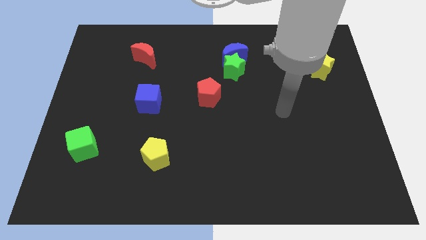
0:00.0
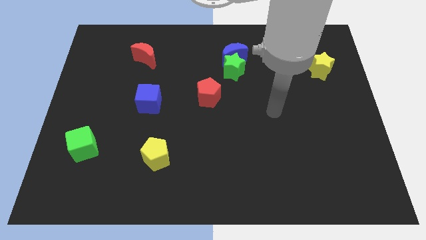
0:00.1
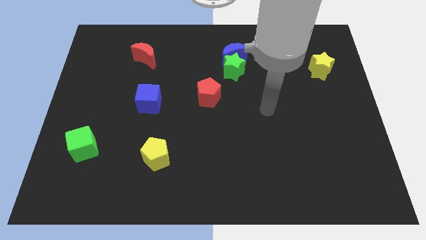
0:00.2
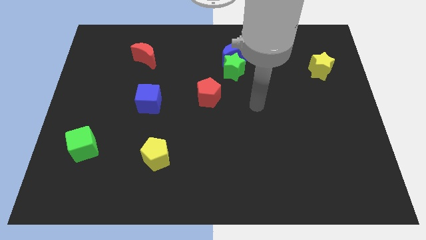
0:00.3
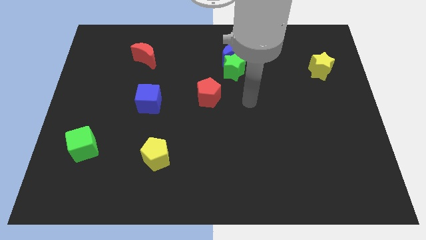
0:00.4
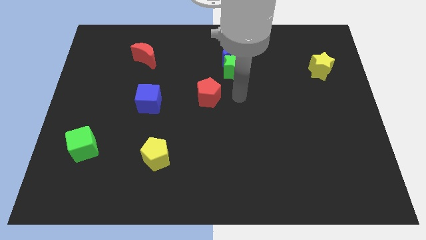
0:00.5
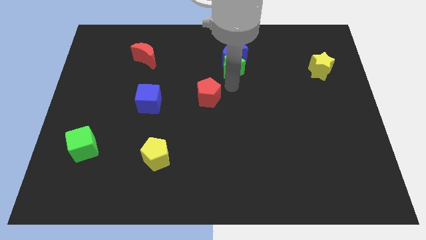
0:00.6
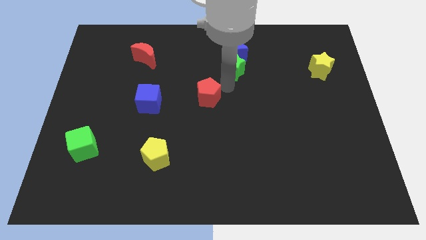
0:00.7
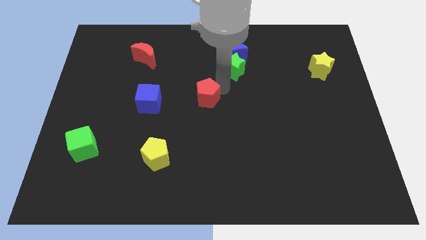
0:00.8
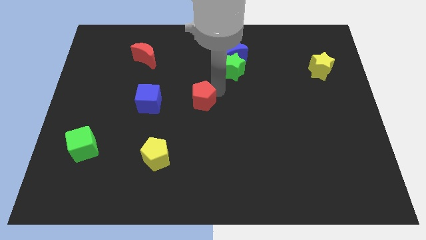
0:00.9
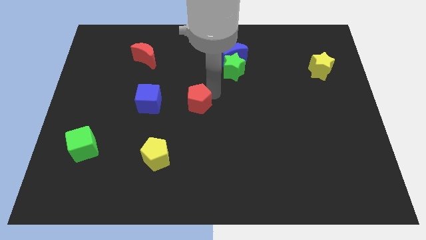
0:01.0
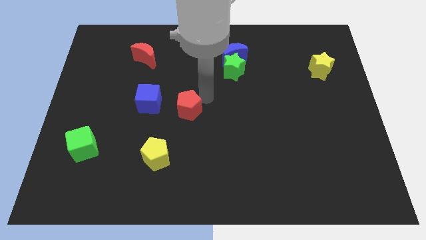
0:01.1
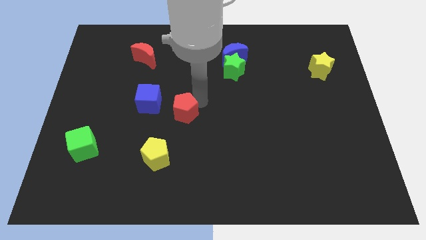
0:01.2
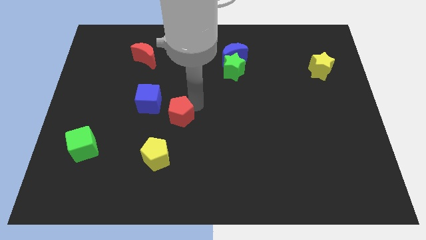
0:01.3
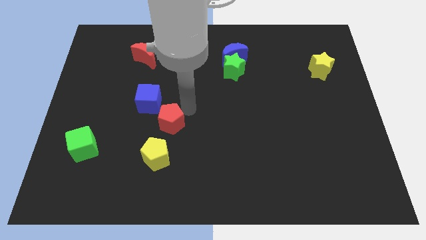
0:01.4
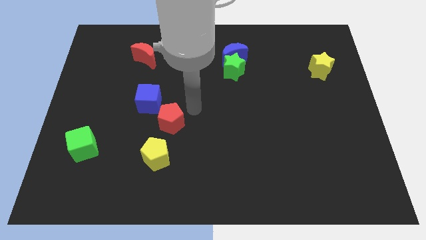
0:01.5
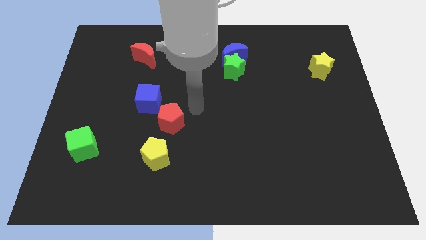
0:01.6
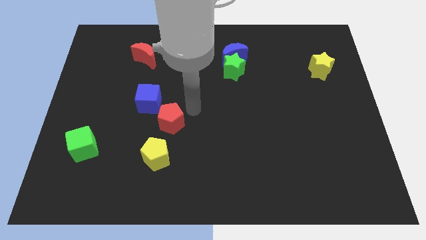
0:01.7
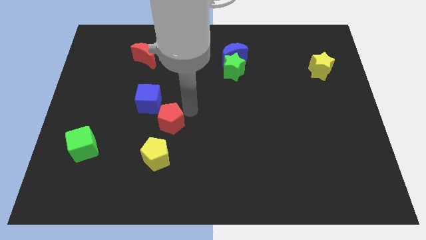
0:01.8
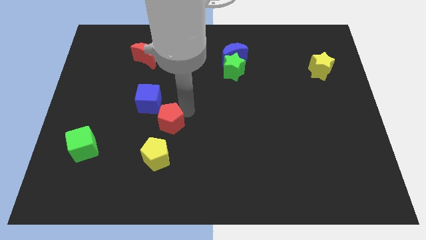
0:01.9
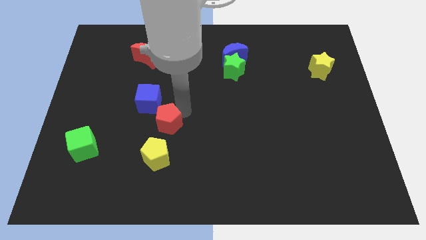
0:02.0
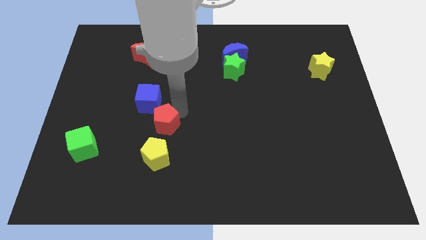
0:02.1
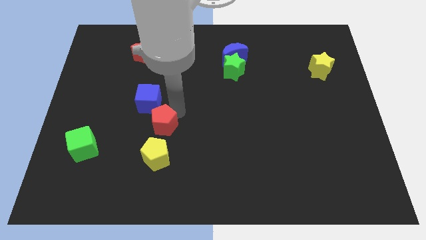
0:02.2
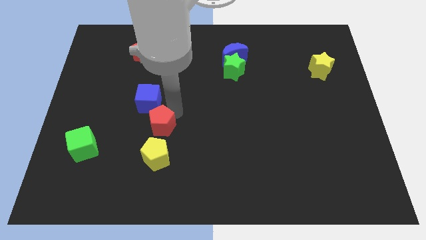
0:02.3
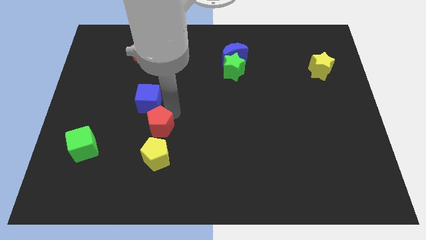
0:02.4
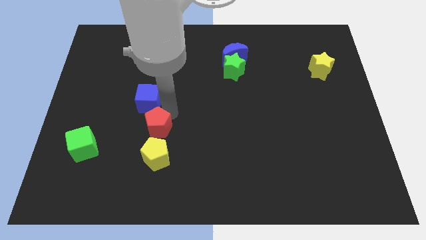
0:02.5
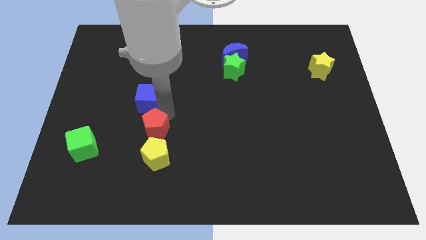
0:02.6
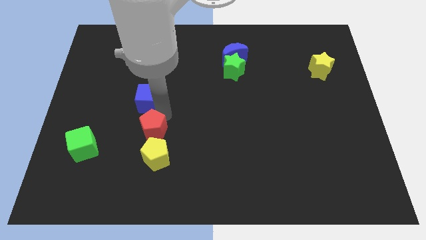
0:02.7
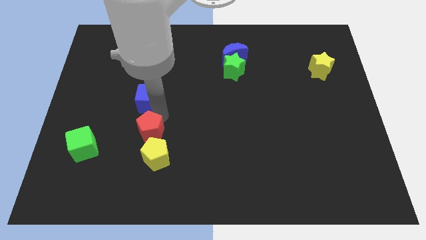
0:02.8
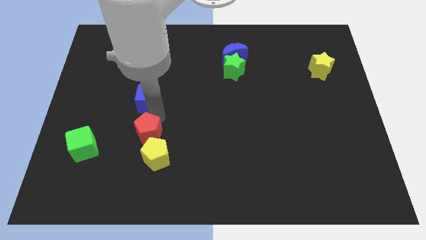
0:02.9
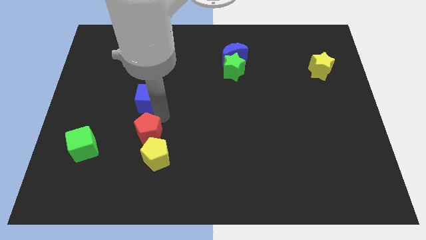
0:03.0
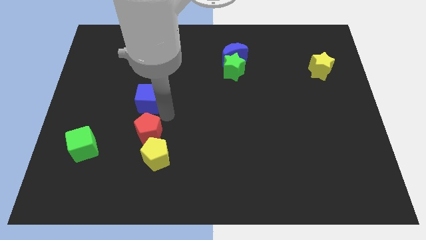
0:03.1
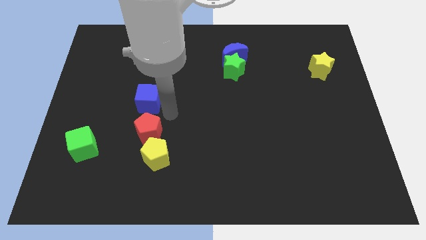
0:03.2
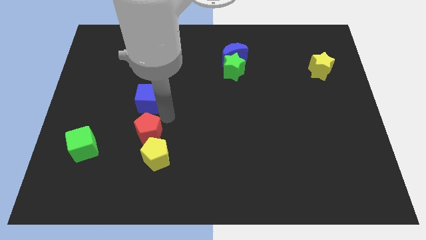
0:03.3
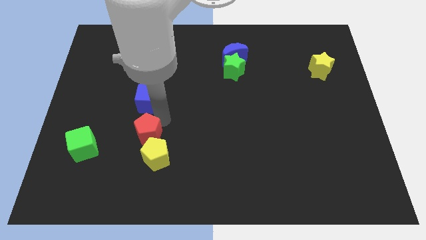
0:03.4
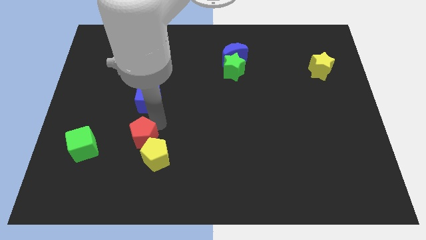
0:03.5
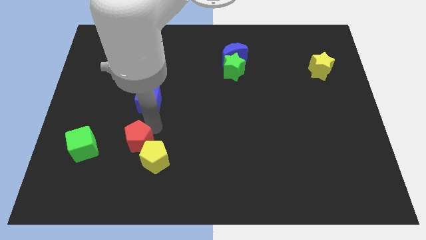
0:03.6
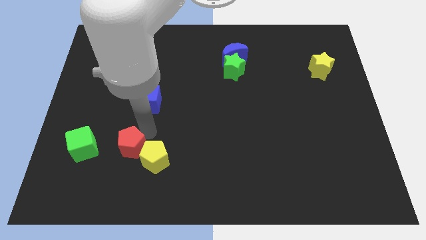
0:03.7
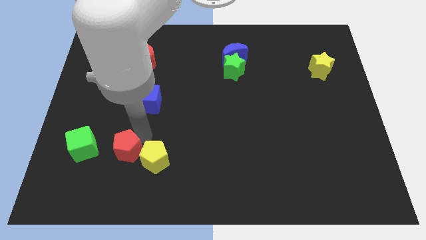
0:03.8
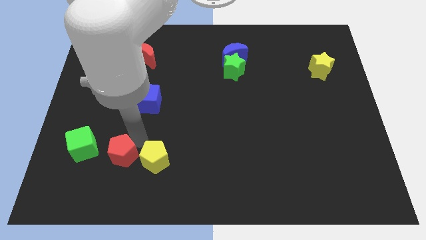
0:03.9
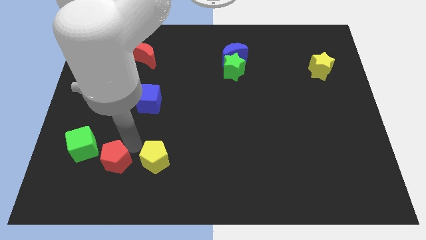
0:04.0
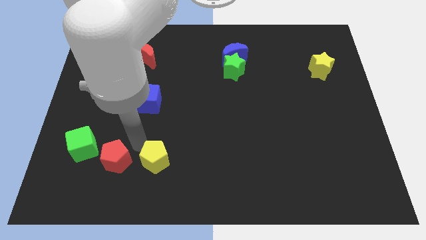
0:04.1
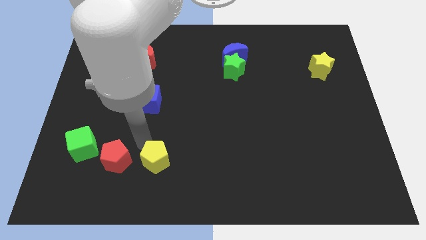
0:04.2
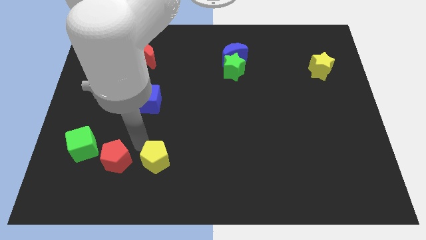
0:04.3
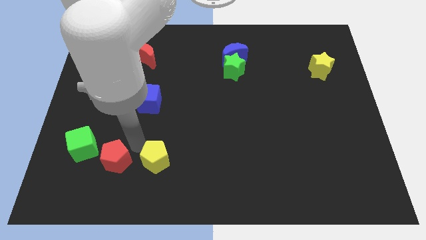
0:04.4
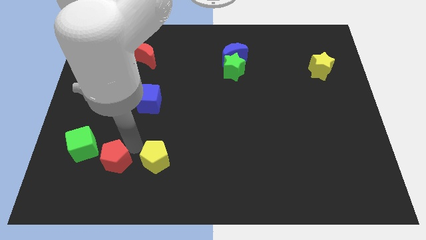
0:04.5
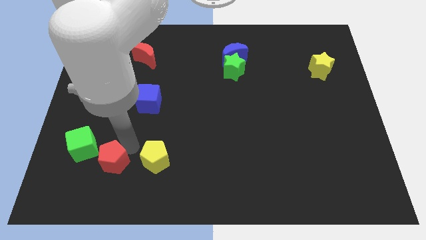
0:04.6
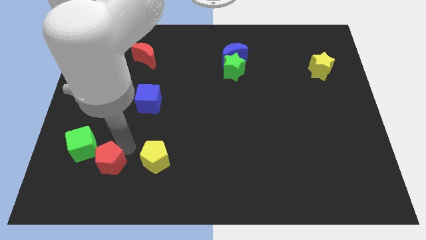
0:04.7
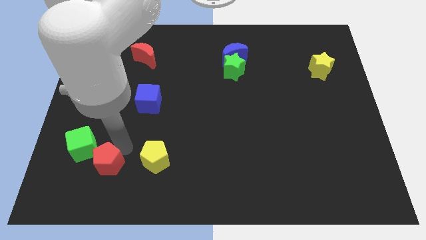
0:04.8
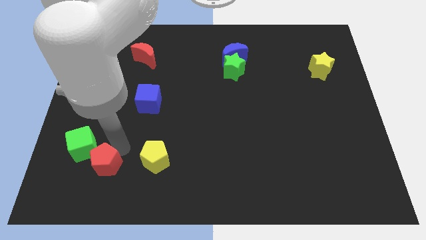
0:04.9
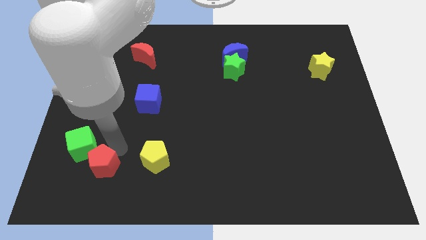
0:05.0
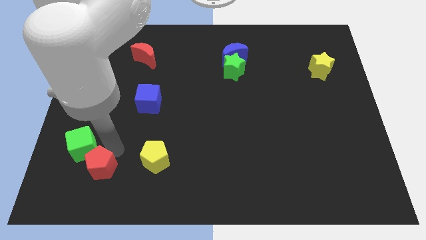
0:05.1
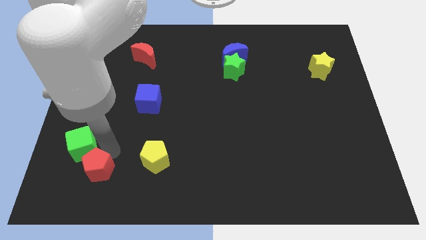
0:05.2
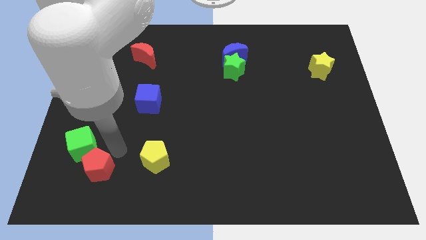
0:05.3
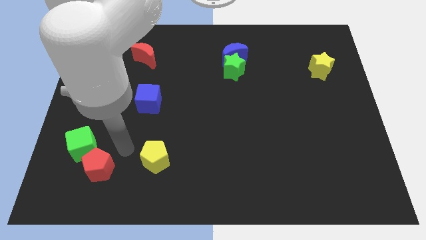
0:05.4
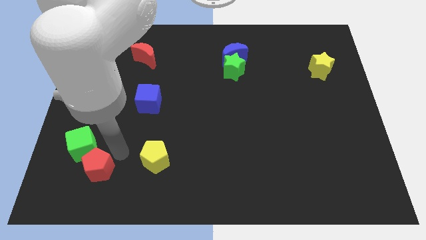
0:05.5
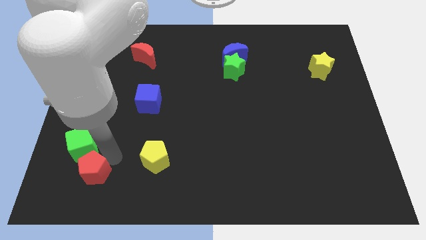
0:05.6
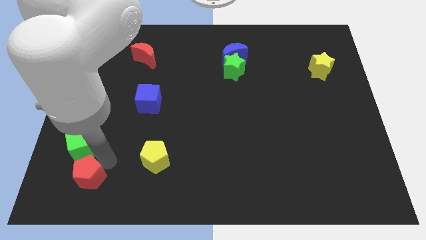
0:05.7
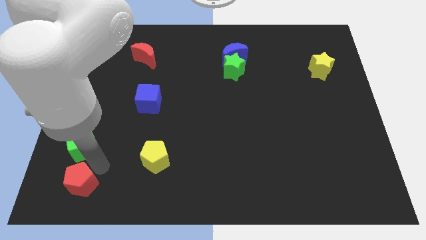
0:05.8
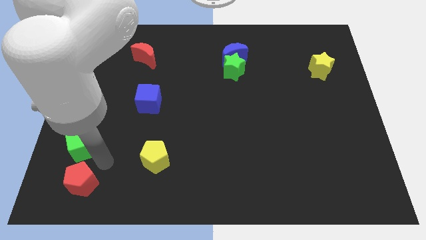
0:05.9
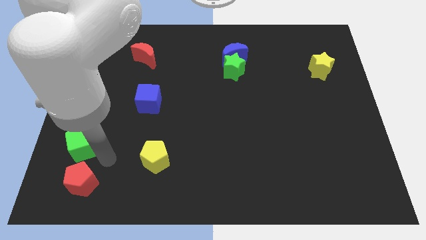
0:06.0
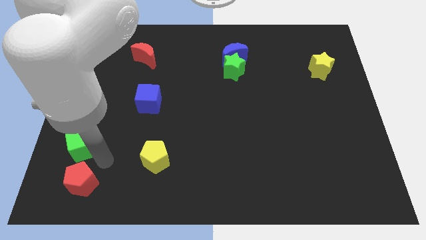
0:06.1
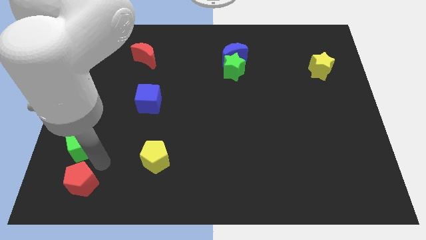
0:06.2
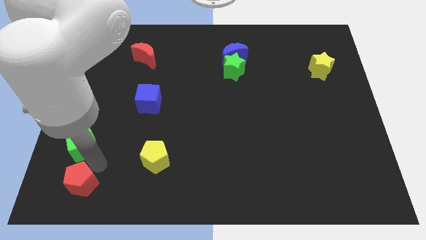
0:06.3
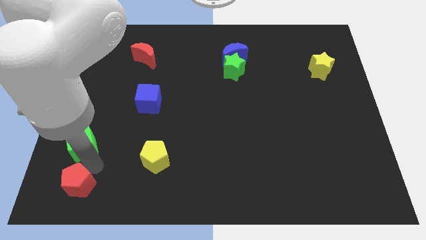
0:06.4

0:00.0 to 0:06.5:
push the red pentagon to the lower left corner

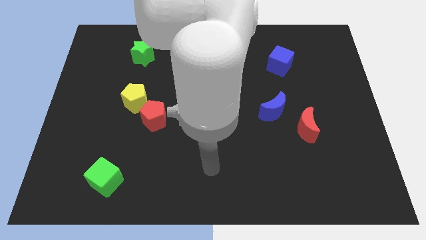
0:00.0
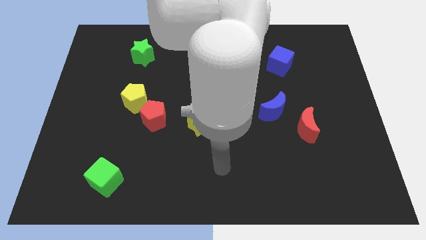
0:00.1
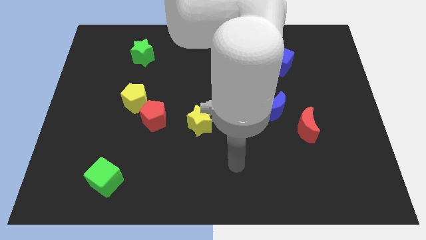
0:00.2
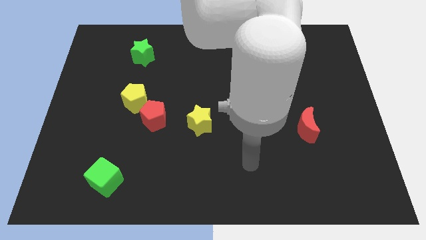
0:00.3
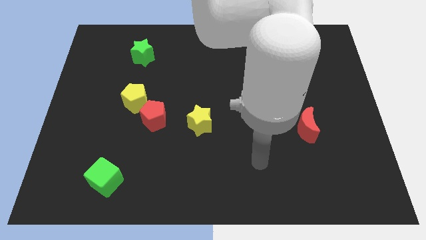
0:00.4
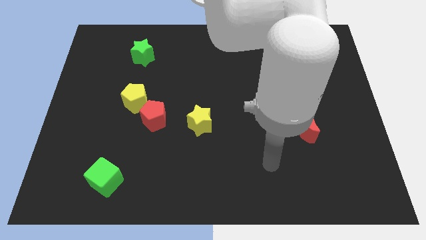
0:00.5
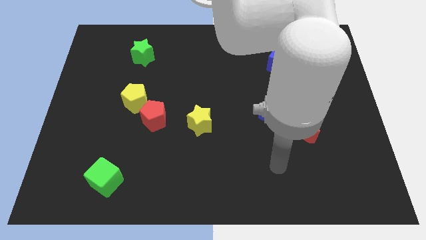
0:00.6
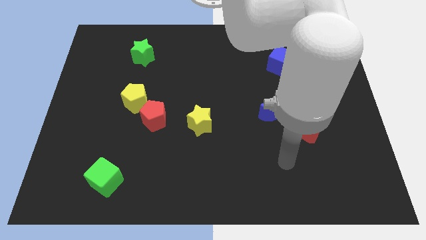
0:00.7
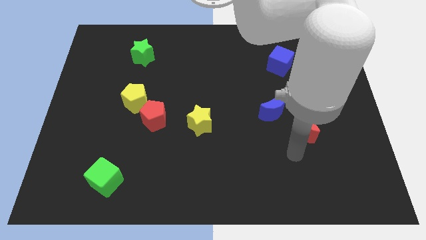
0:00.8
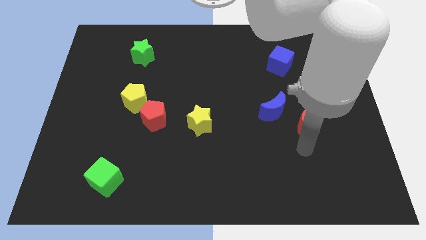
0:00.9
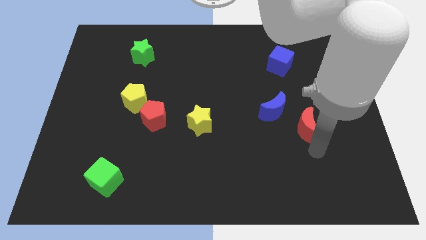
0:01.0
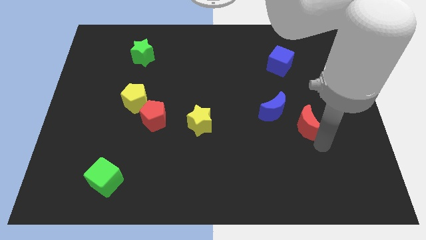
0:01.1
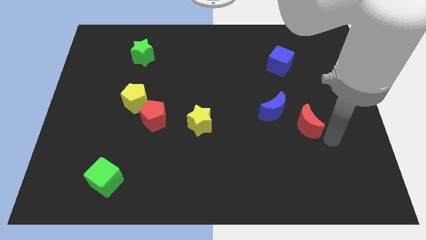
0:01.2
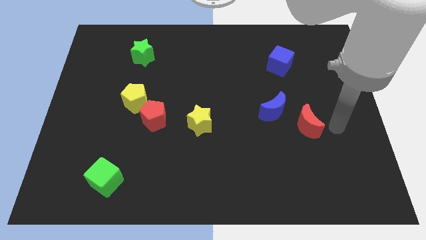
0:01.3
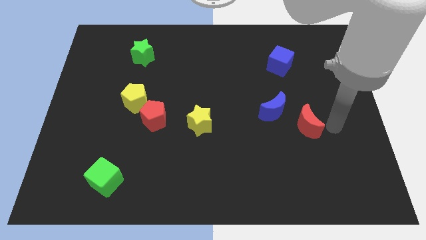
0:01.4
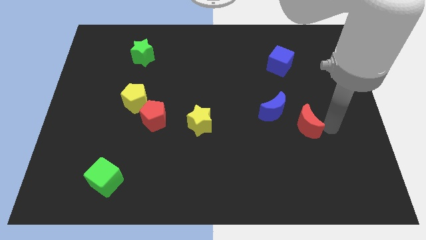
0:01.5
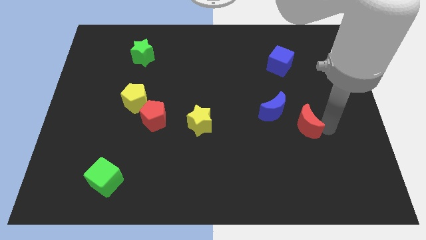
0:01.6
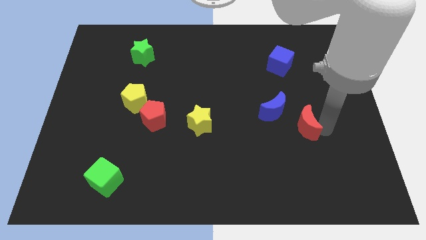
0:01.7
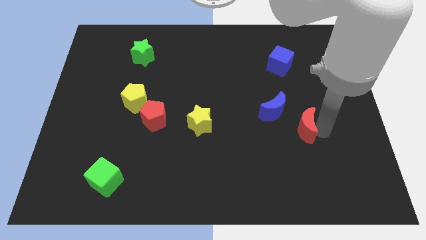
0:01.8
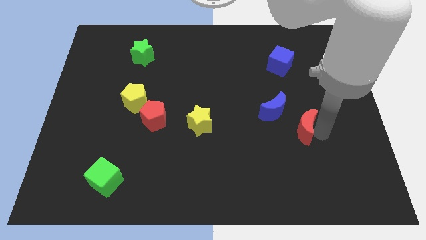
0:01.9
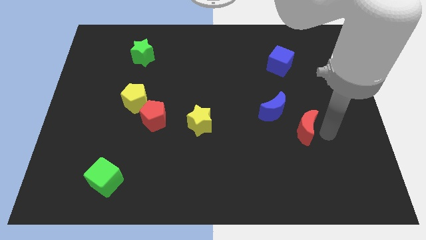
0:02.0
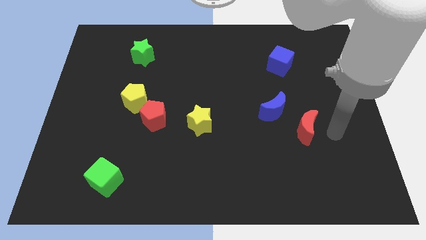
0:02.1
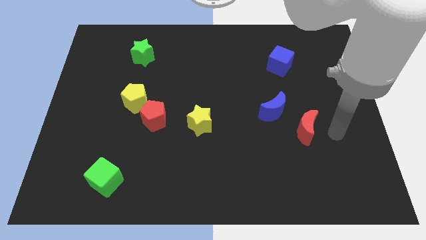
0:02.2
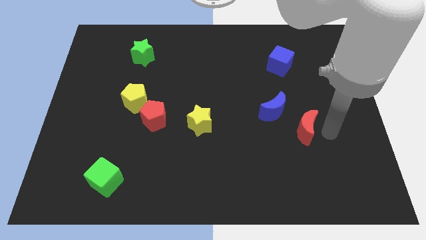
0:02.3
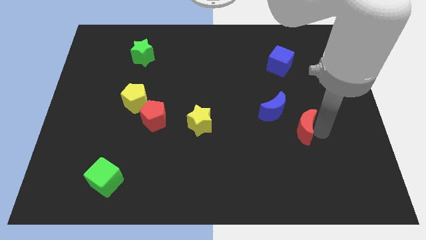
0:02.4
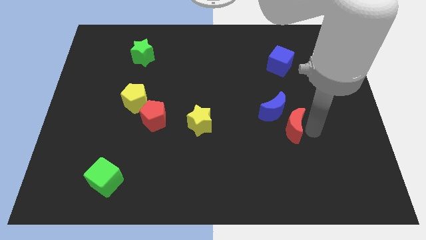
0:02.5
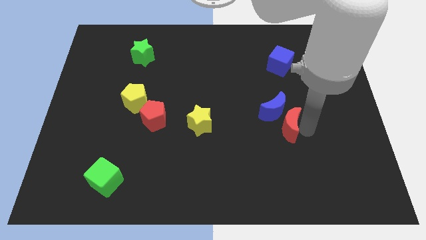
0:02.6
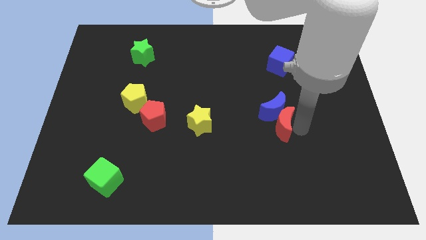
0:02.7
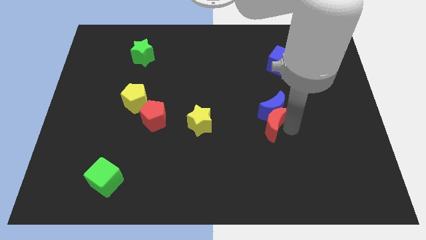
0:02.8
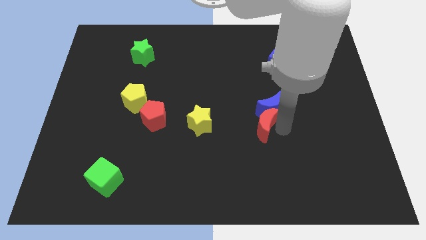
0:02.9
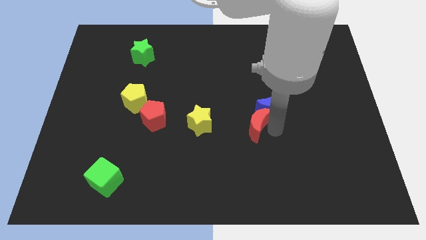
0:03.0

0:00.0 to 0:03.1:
slide the red moon to the middle
